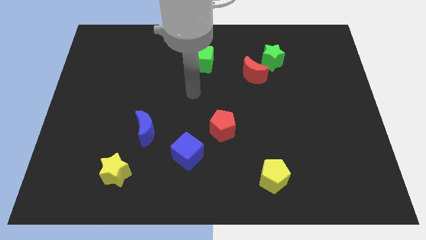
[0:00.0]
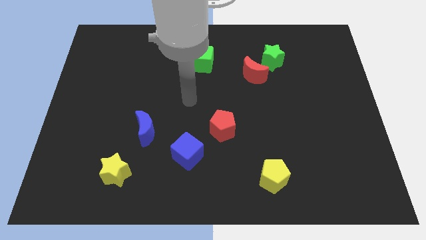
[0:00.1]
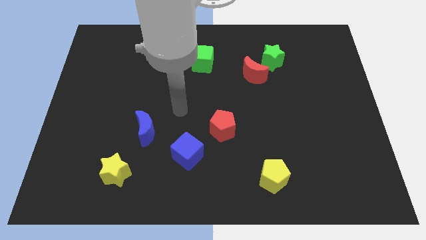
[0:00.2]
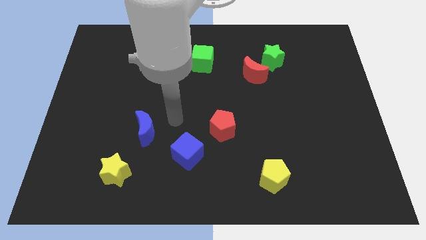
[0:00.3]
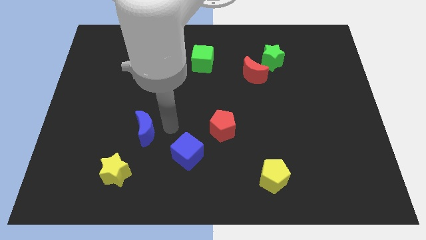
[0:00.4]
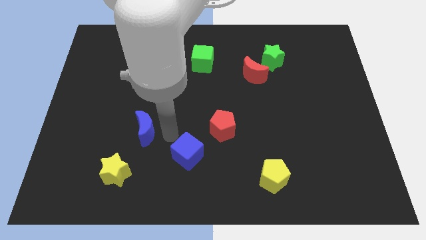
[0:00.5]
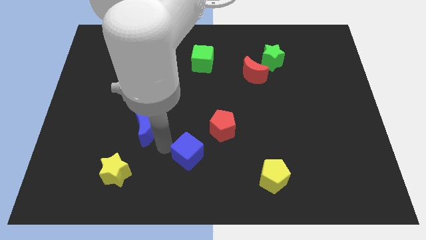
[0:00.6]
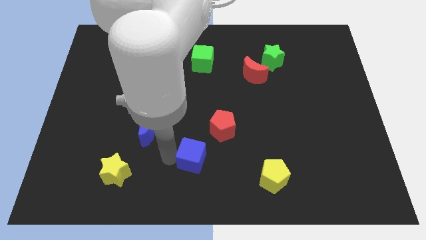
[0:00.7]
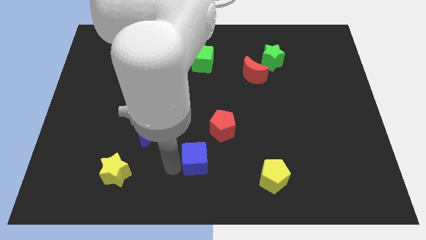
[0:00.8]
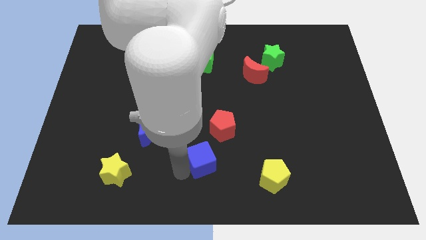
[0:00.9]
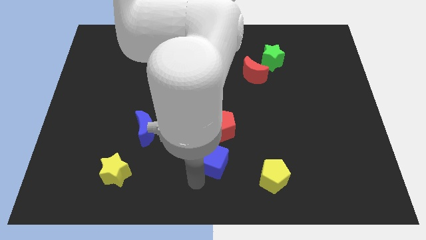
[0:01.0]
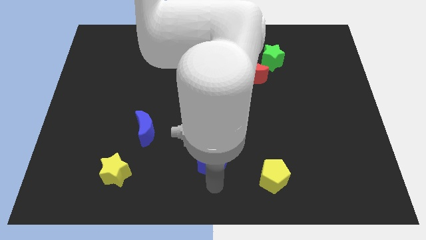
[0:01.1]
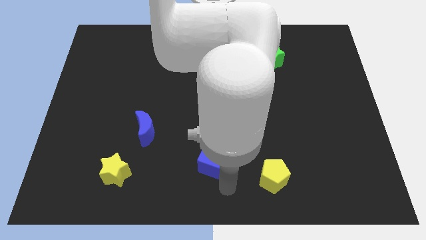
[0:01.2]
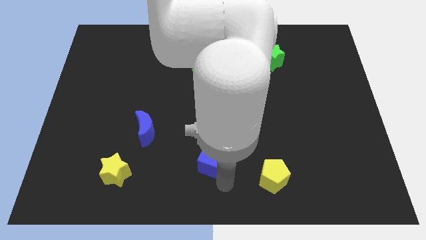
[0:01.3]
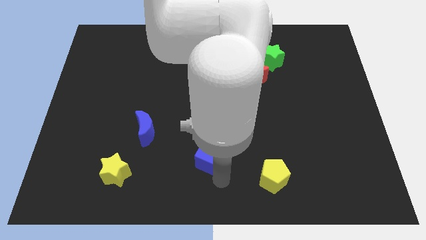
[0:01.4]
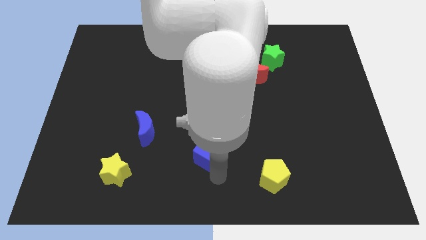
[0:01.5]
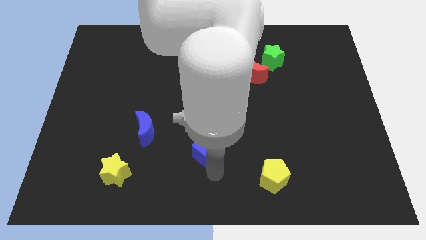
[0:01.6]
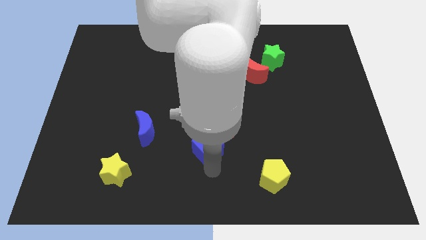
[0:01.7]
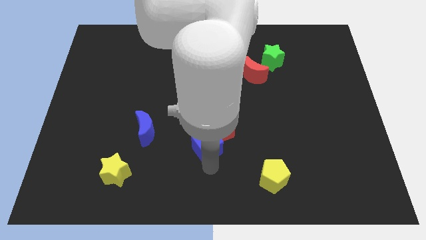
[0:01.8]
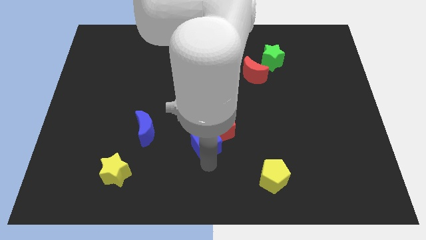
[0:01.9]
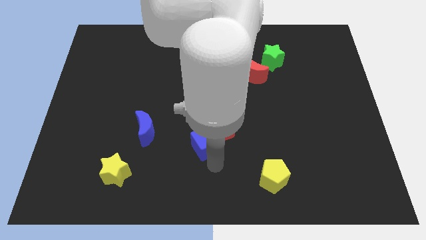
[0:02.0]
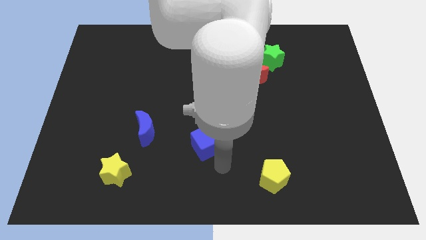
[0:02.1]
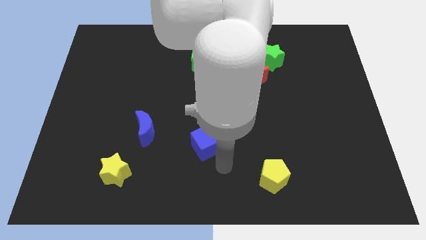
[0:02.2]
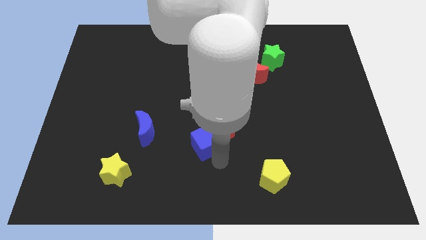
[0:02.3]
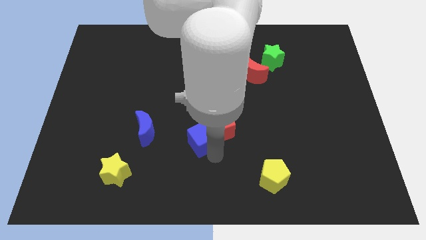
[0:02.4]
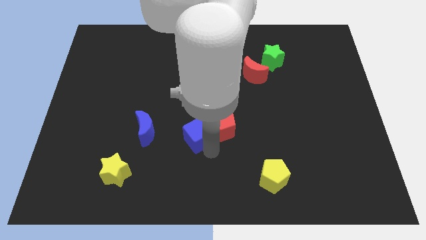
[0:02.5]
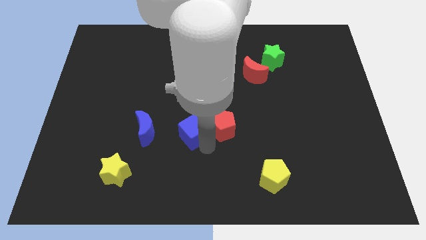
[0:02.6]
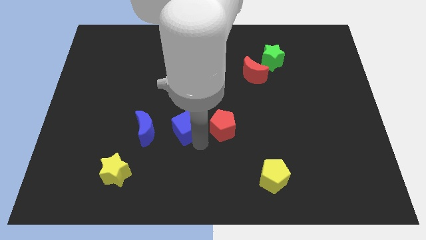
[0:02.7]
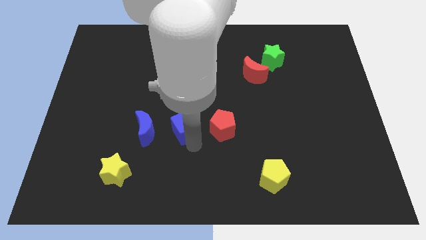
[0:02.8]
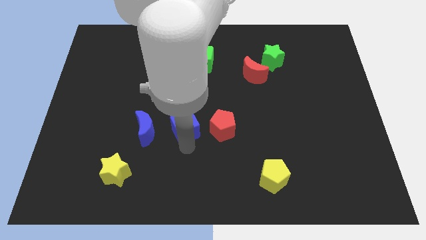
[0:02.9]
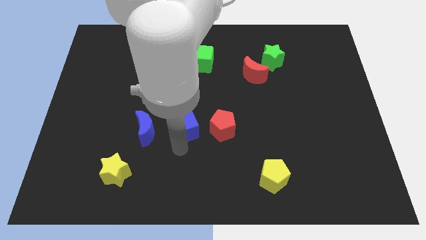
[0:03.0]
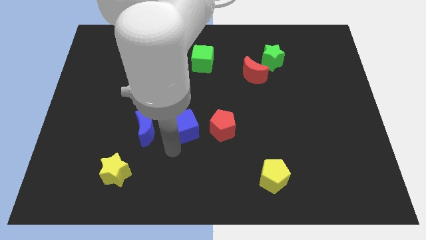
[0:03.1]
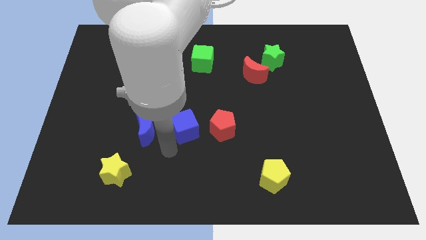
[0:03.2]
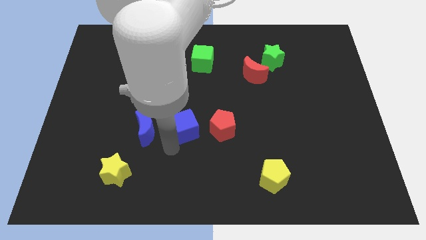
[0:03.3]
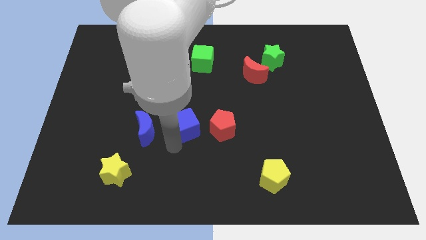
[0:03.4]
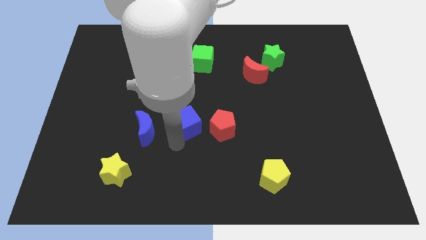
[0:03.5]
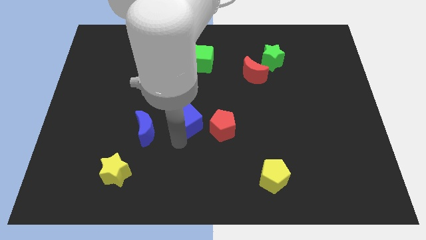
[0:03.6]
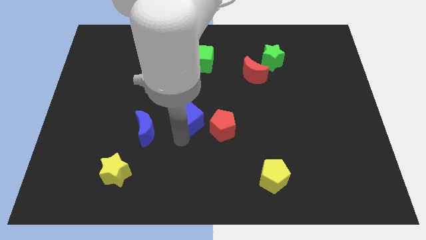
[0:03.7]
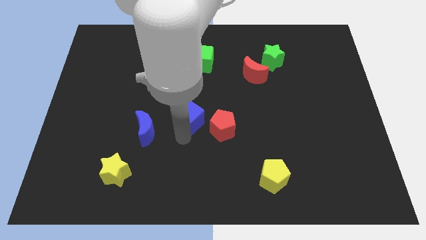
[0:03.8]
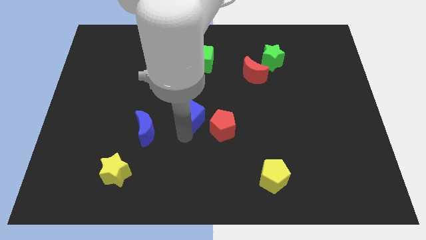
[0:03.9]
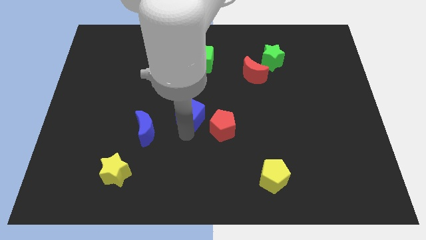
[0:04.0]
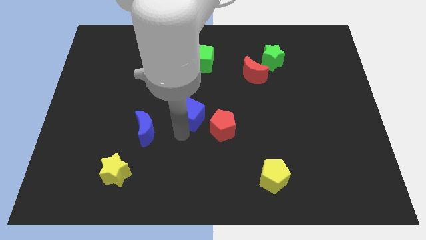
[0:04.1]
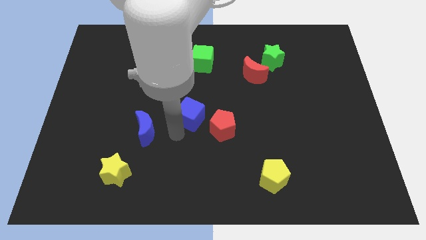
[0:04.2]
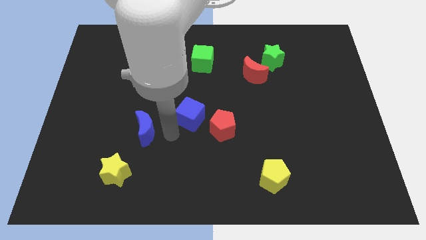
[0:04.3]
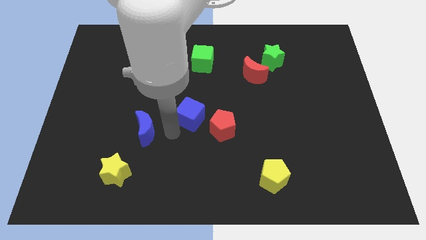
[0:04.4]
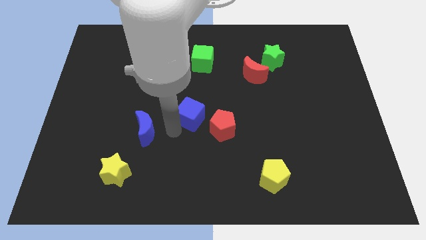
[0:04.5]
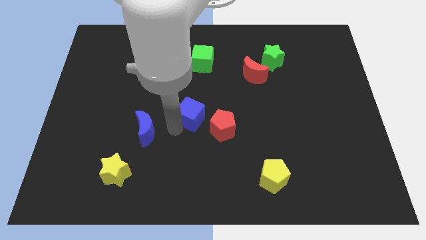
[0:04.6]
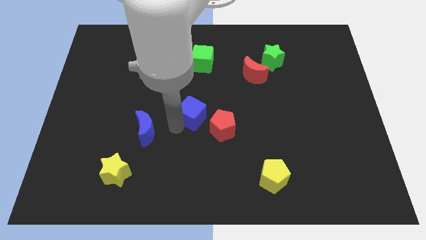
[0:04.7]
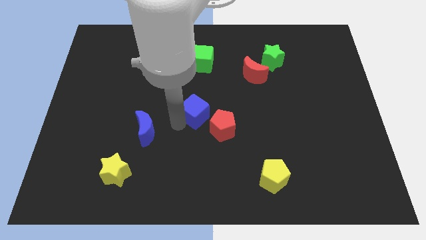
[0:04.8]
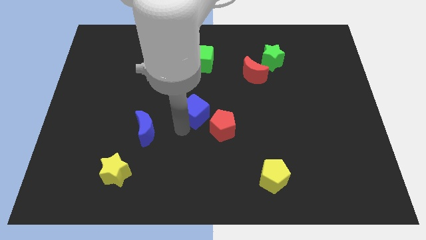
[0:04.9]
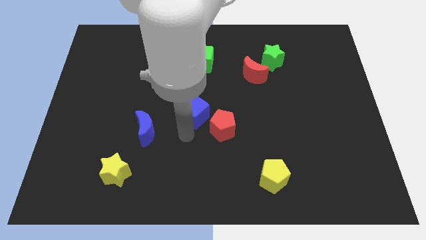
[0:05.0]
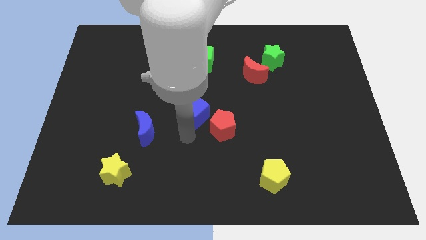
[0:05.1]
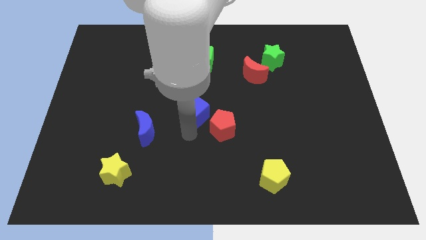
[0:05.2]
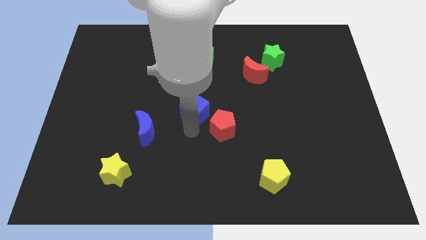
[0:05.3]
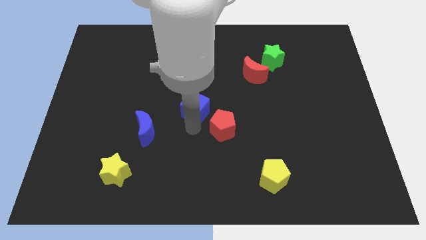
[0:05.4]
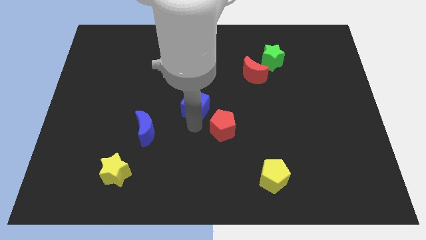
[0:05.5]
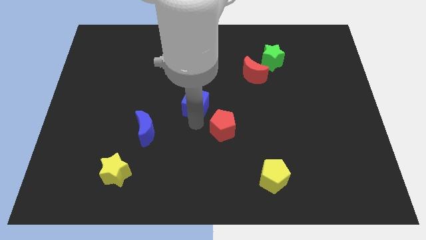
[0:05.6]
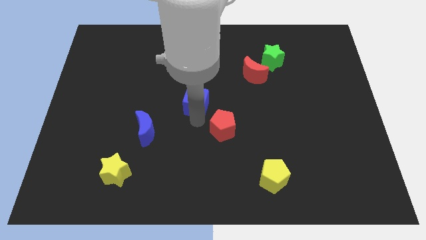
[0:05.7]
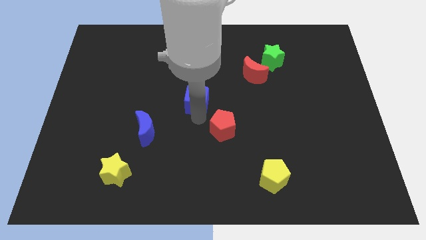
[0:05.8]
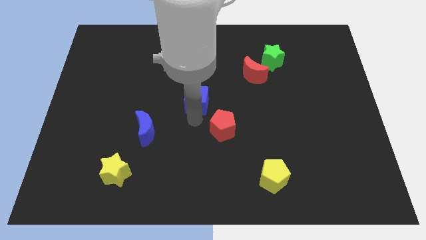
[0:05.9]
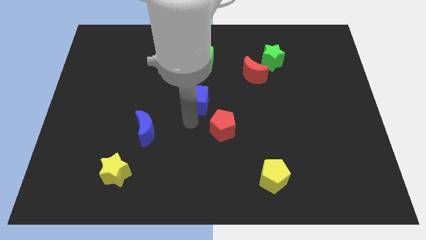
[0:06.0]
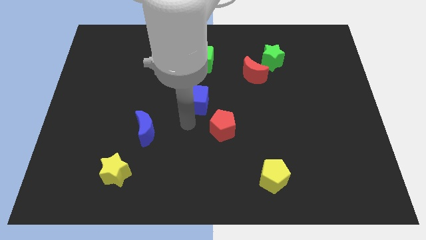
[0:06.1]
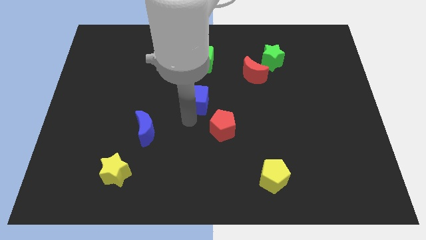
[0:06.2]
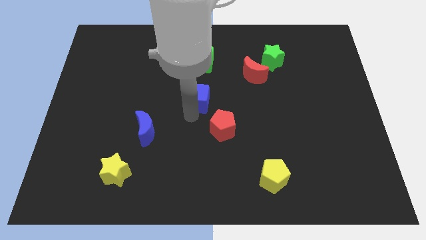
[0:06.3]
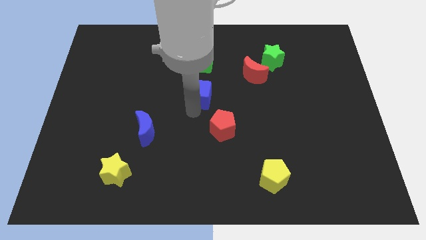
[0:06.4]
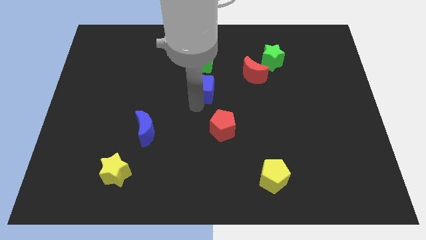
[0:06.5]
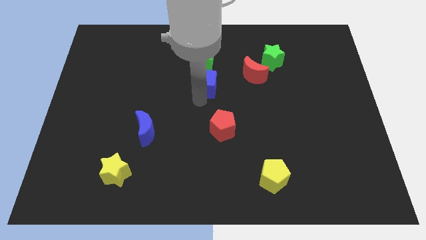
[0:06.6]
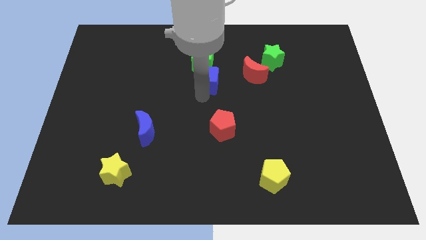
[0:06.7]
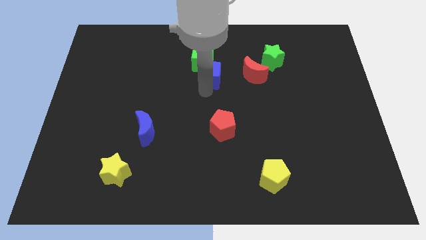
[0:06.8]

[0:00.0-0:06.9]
move the blue cube close to the green cube

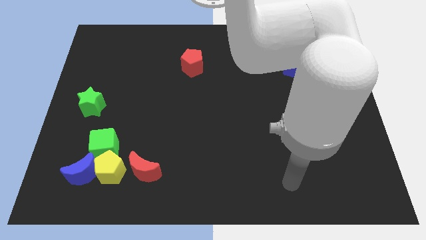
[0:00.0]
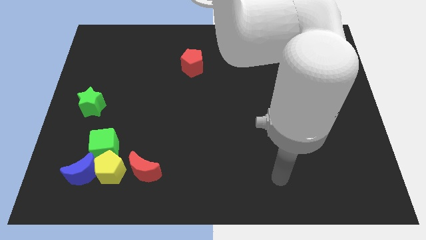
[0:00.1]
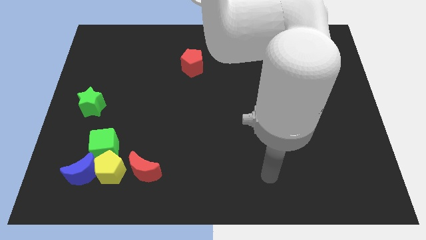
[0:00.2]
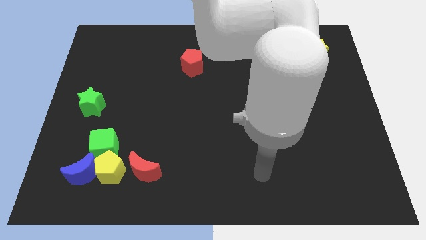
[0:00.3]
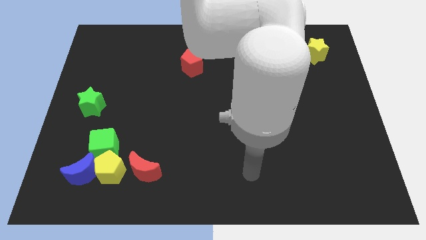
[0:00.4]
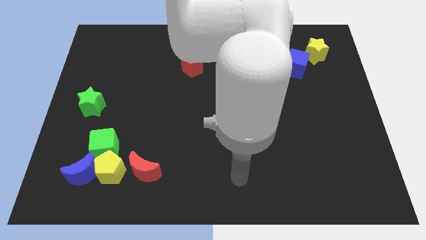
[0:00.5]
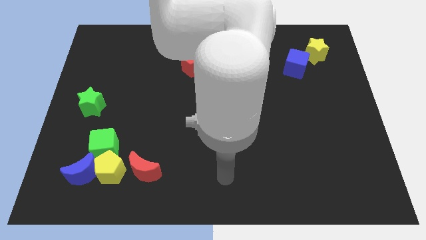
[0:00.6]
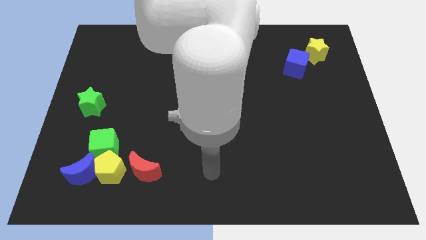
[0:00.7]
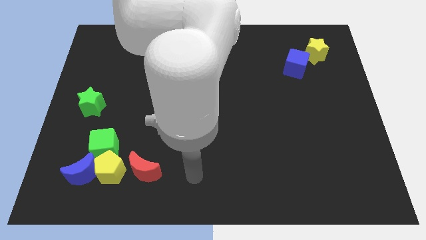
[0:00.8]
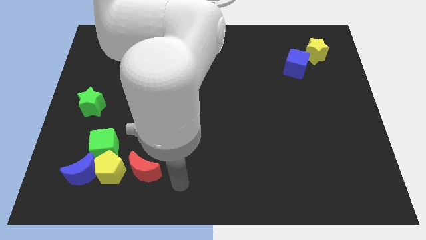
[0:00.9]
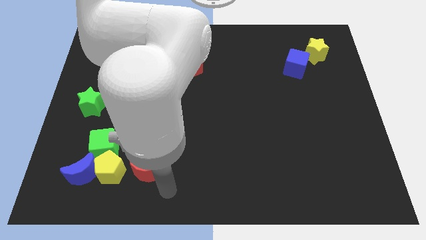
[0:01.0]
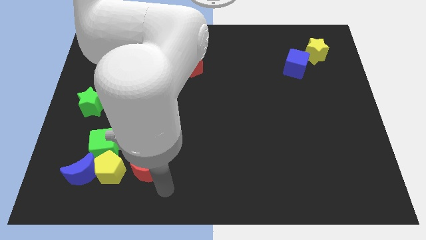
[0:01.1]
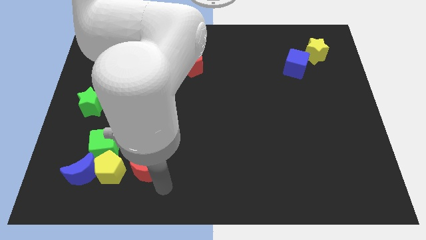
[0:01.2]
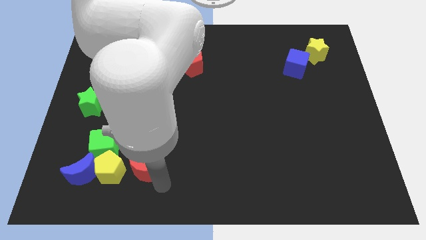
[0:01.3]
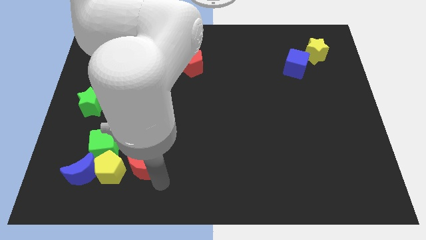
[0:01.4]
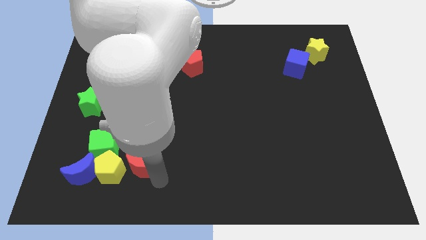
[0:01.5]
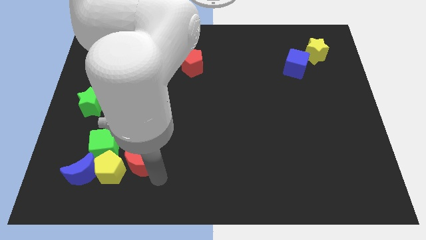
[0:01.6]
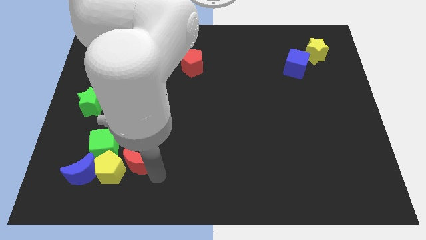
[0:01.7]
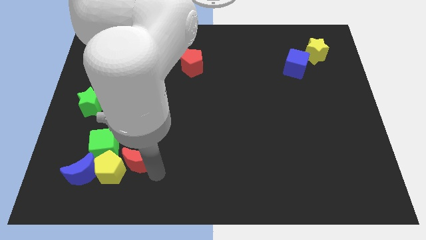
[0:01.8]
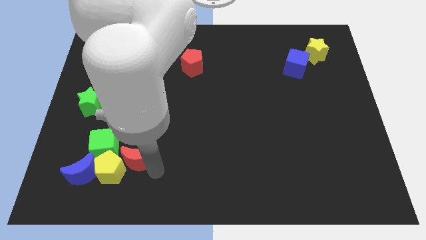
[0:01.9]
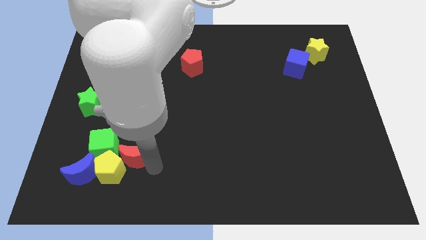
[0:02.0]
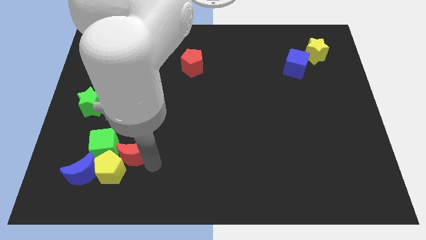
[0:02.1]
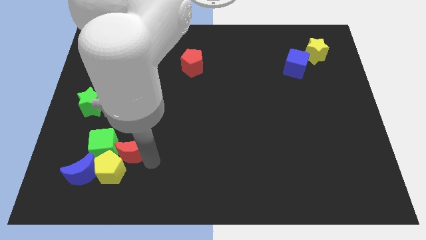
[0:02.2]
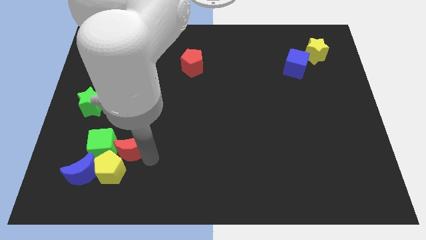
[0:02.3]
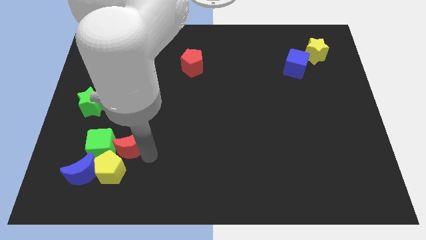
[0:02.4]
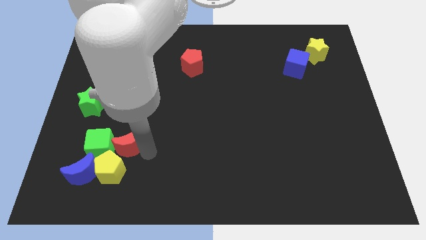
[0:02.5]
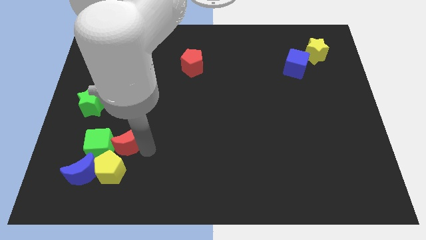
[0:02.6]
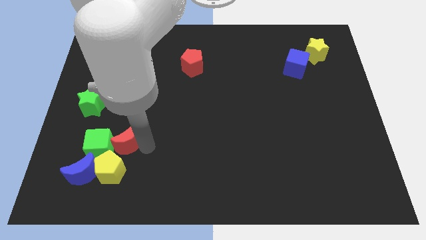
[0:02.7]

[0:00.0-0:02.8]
slide the red moon to the green cube
